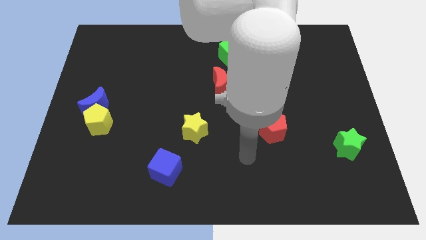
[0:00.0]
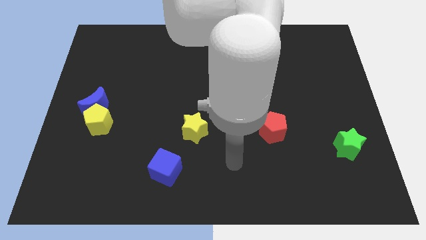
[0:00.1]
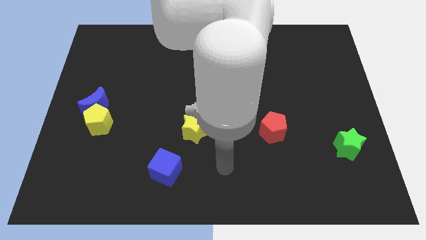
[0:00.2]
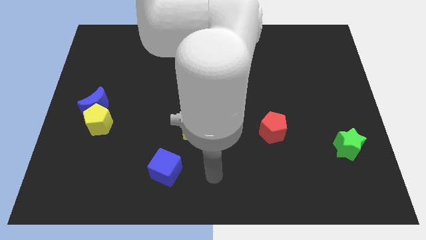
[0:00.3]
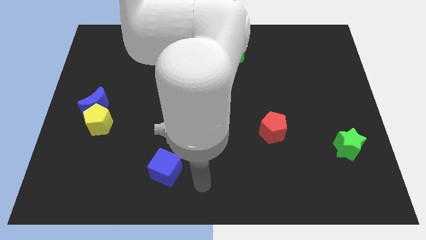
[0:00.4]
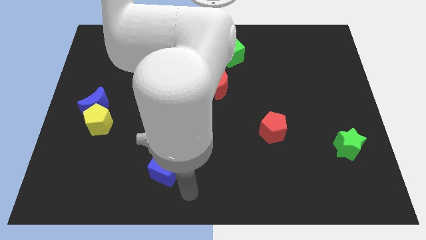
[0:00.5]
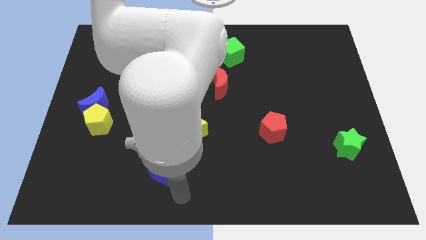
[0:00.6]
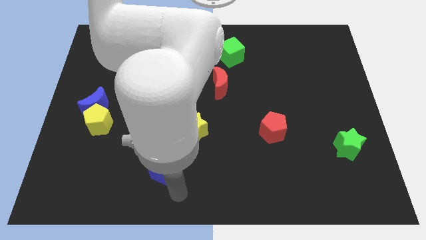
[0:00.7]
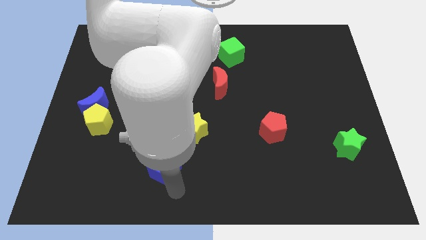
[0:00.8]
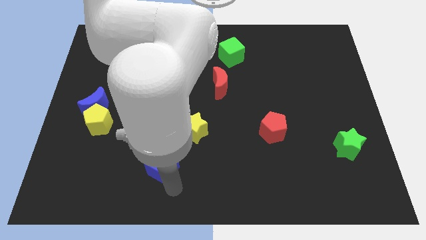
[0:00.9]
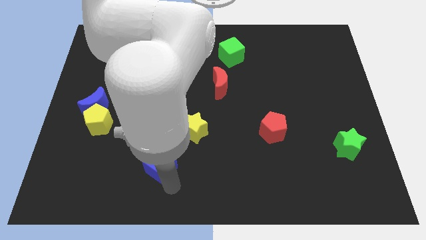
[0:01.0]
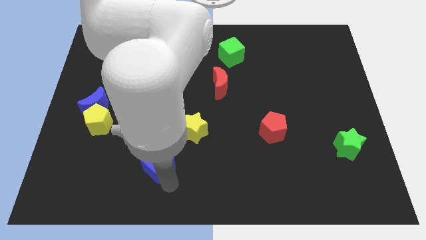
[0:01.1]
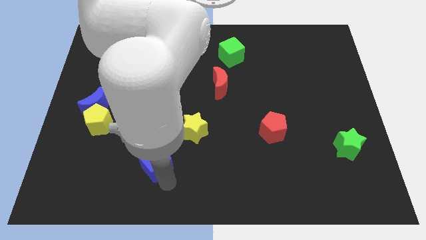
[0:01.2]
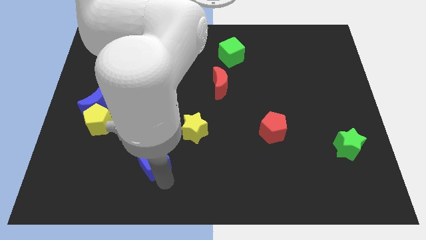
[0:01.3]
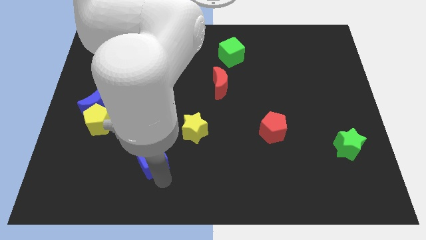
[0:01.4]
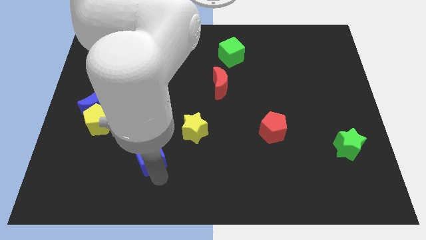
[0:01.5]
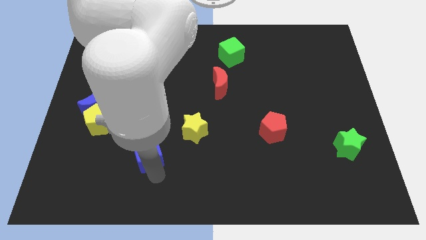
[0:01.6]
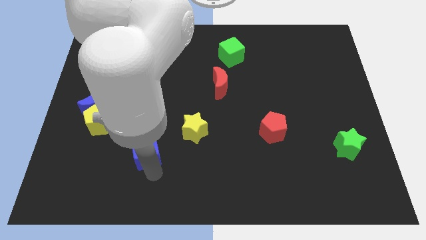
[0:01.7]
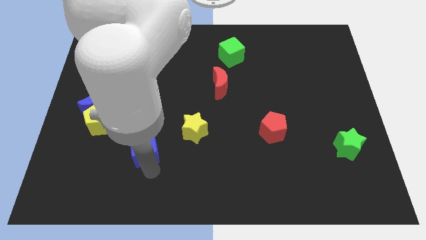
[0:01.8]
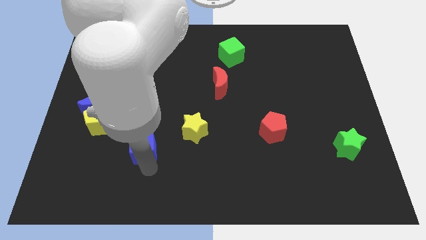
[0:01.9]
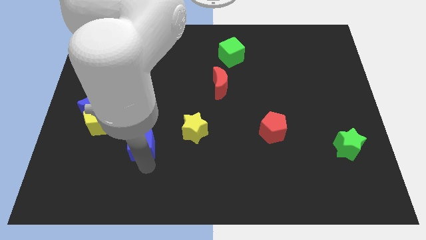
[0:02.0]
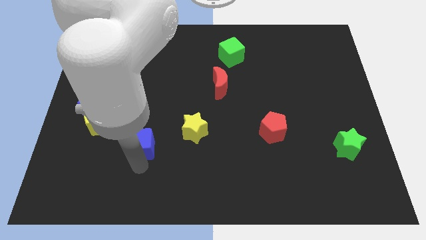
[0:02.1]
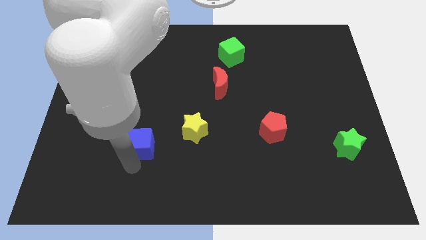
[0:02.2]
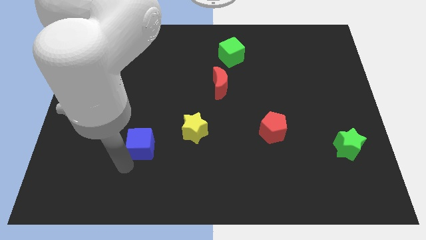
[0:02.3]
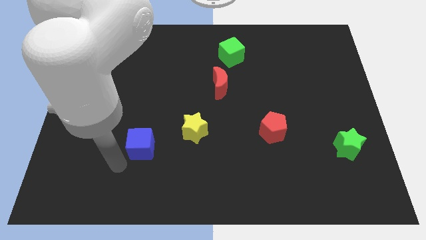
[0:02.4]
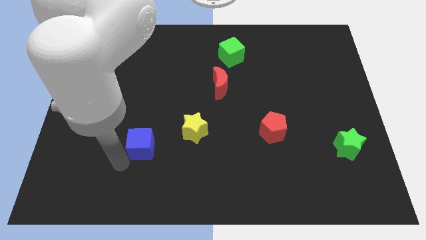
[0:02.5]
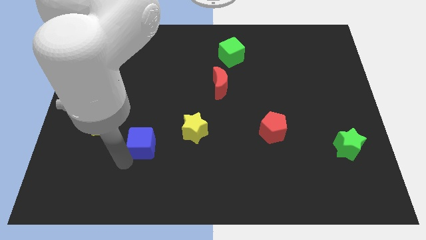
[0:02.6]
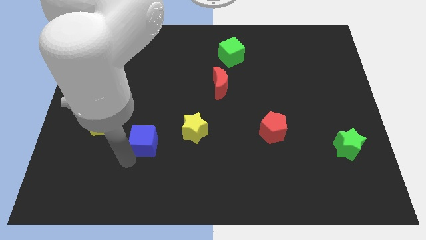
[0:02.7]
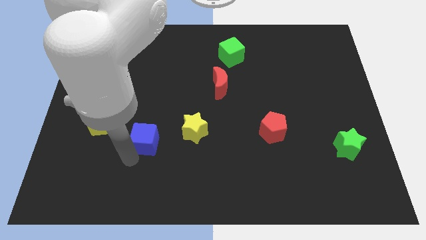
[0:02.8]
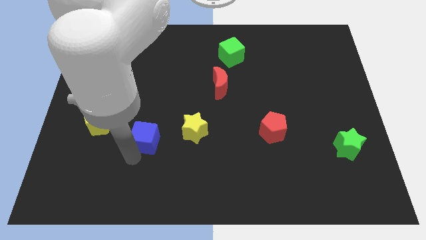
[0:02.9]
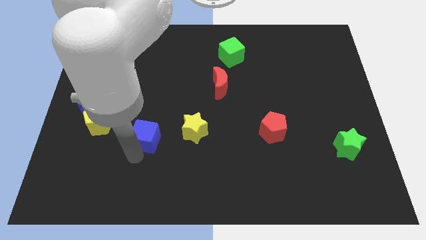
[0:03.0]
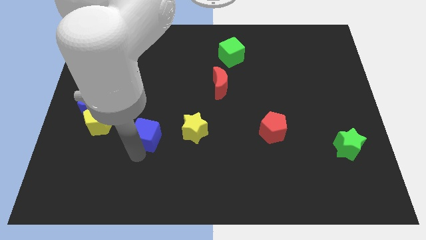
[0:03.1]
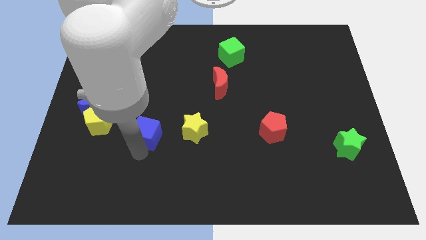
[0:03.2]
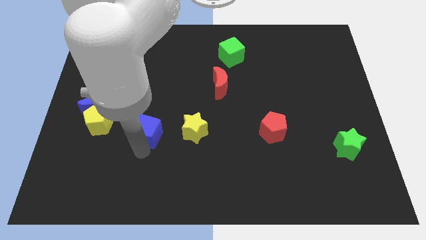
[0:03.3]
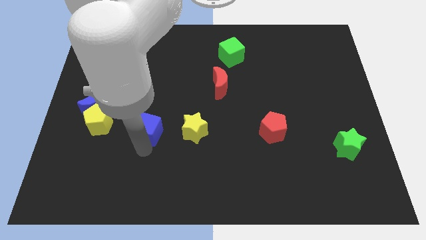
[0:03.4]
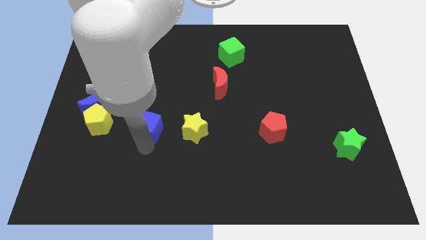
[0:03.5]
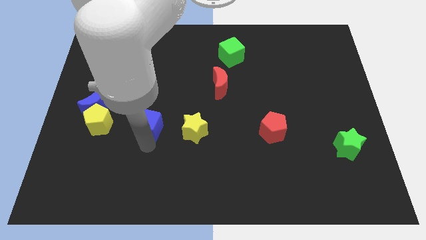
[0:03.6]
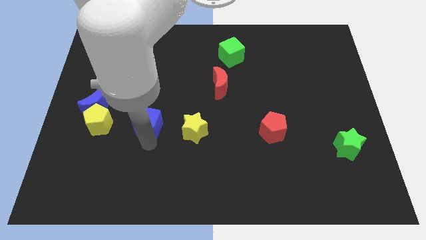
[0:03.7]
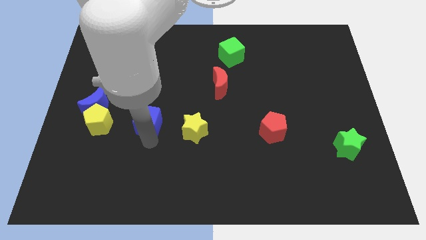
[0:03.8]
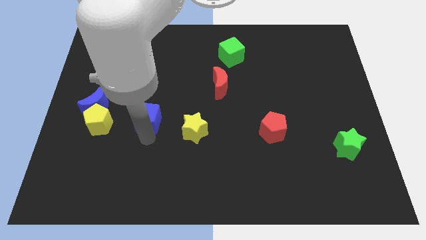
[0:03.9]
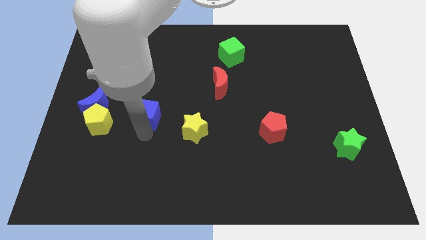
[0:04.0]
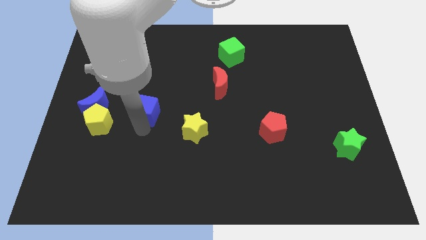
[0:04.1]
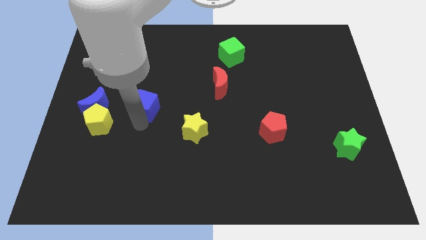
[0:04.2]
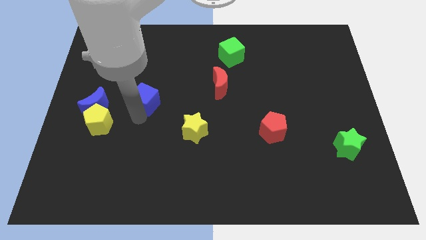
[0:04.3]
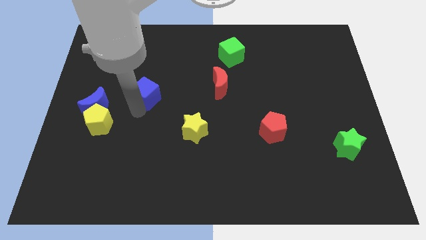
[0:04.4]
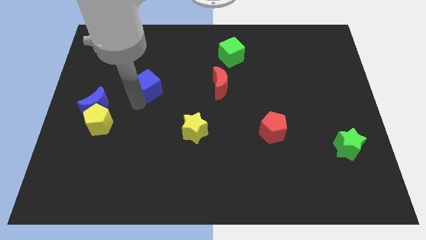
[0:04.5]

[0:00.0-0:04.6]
move the blue cube upwards

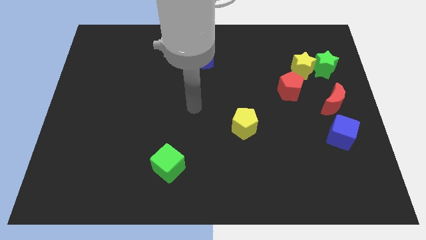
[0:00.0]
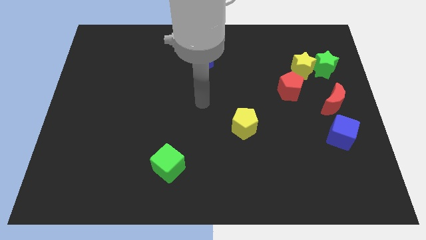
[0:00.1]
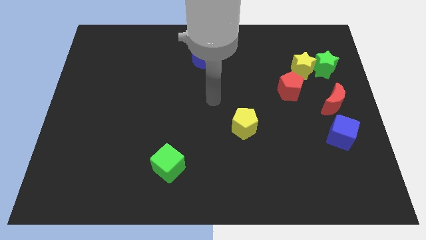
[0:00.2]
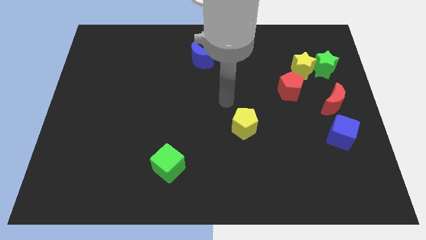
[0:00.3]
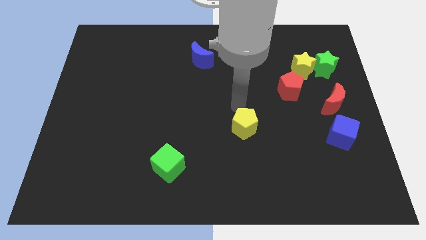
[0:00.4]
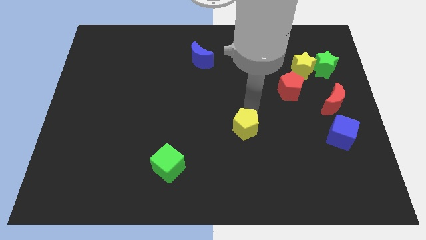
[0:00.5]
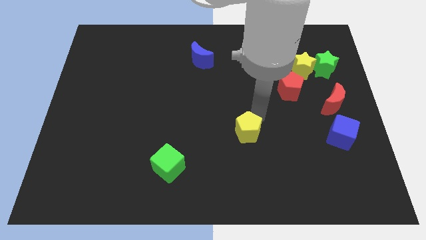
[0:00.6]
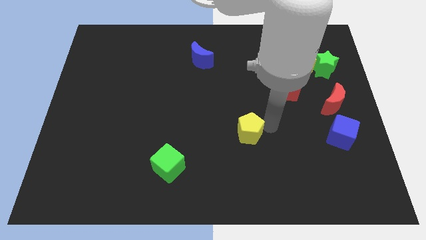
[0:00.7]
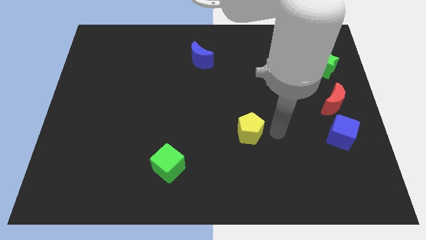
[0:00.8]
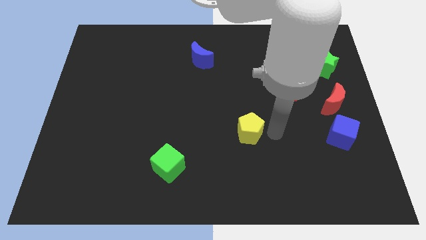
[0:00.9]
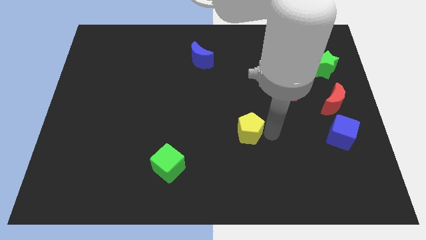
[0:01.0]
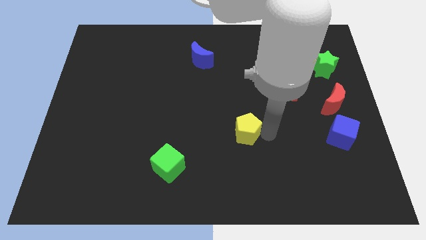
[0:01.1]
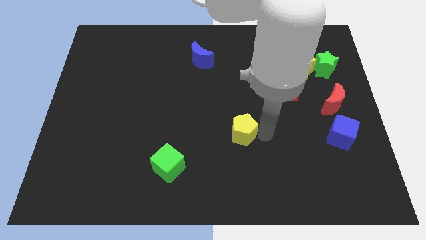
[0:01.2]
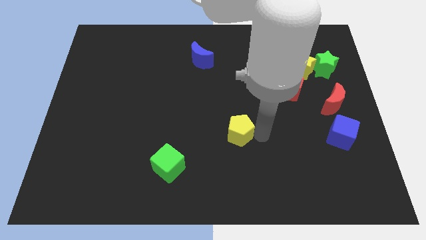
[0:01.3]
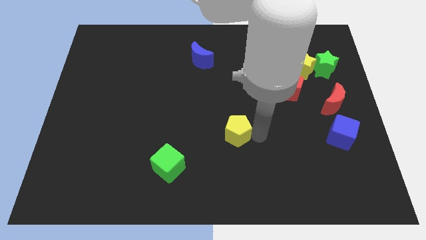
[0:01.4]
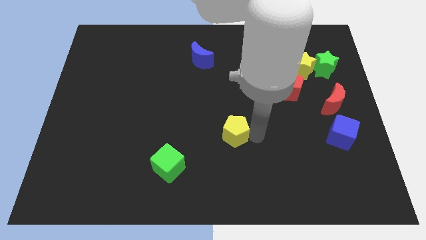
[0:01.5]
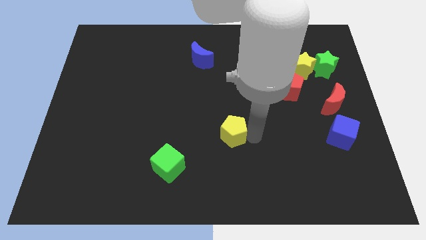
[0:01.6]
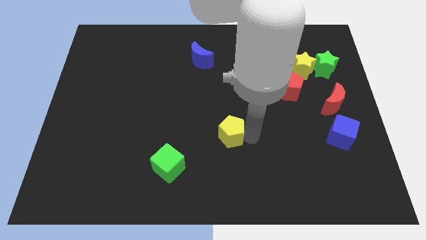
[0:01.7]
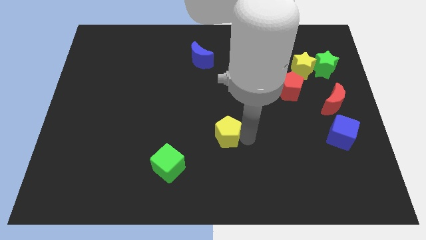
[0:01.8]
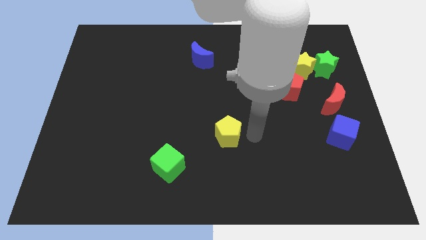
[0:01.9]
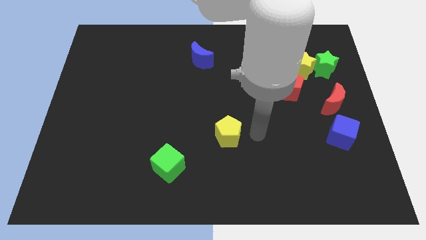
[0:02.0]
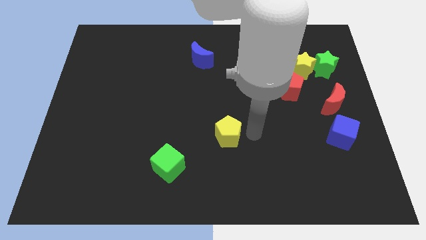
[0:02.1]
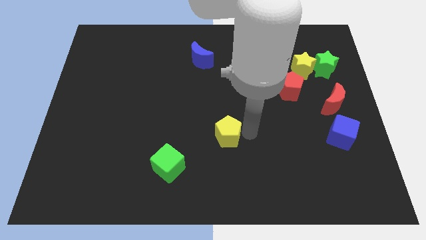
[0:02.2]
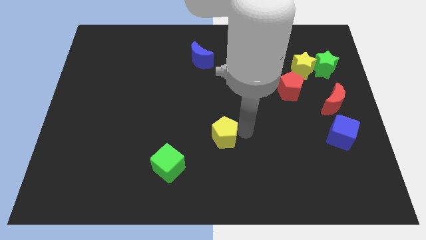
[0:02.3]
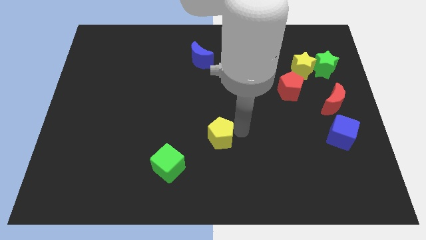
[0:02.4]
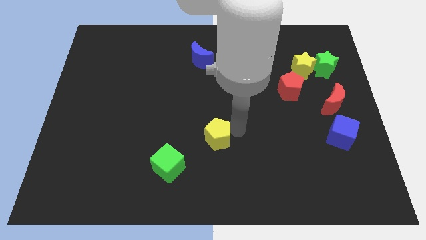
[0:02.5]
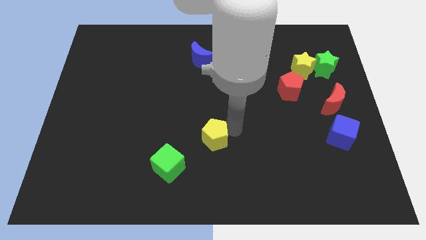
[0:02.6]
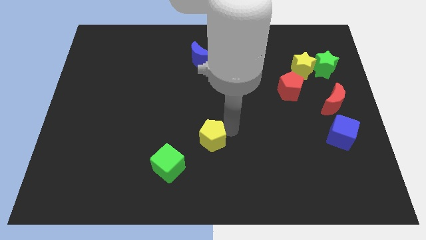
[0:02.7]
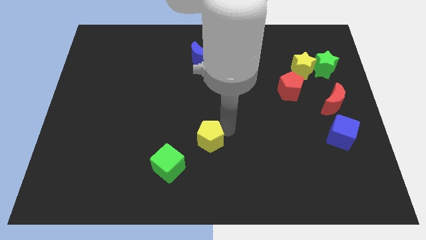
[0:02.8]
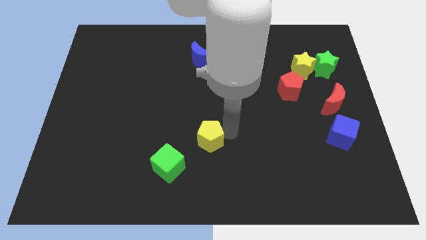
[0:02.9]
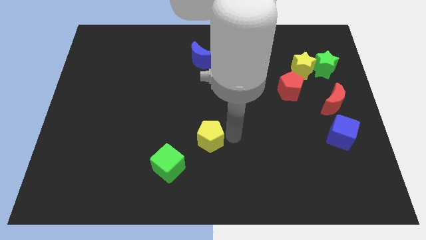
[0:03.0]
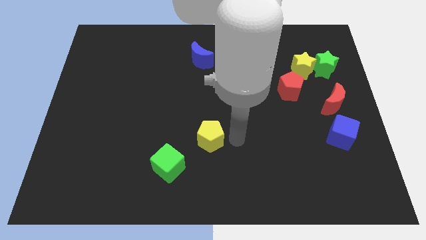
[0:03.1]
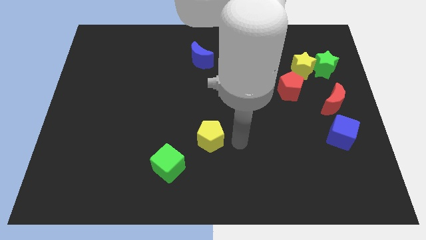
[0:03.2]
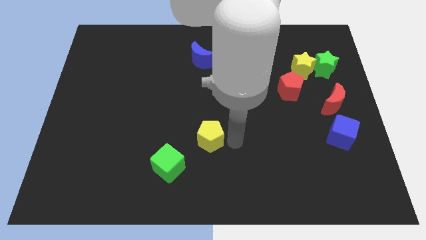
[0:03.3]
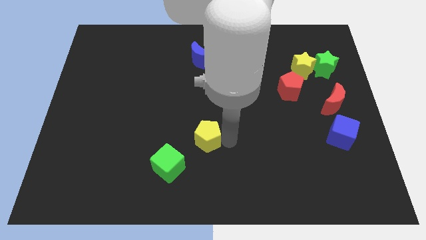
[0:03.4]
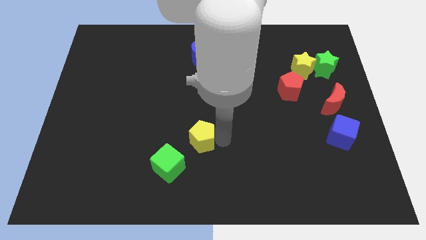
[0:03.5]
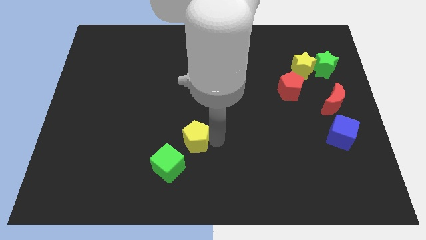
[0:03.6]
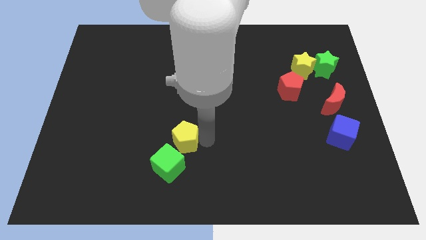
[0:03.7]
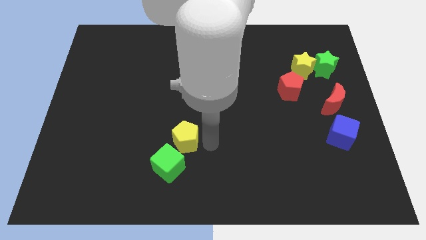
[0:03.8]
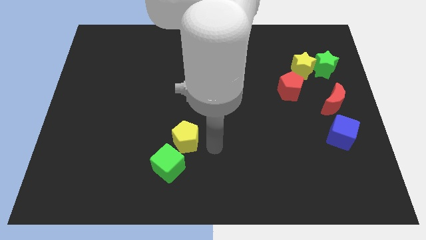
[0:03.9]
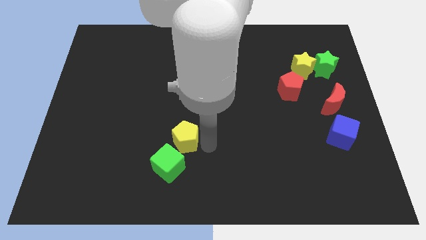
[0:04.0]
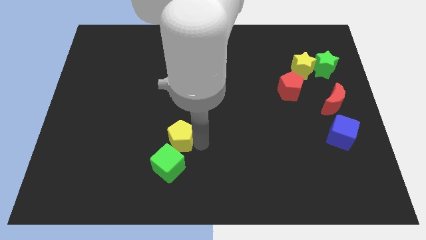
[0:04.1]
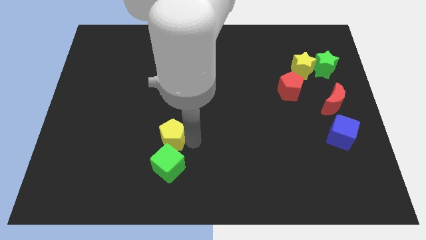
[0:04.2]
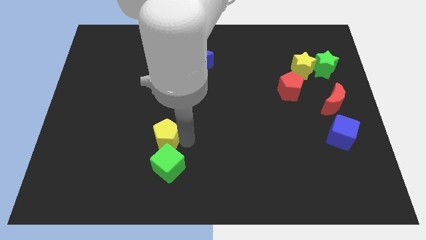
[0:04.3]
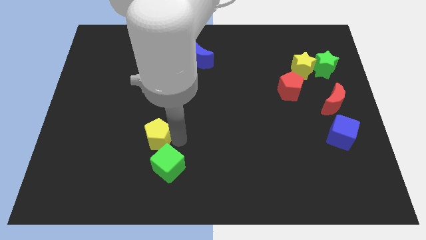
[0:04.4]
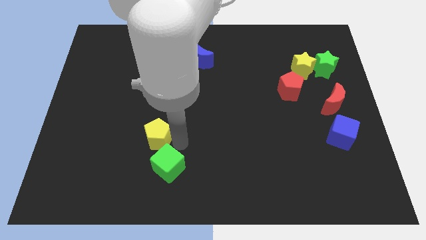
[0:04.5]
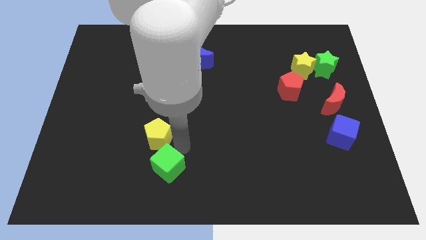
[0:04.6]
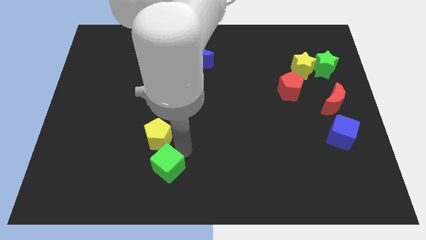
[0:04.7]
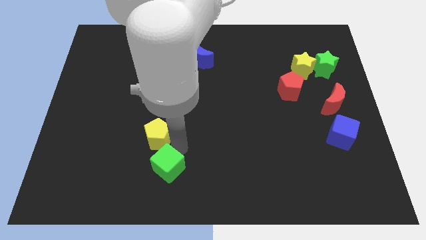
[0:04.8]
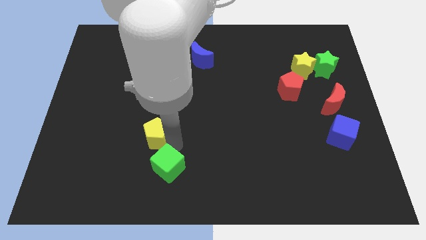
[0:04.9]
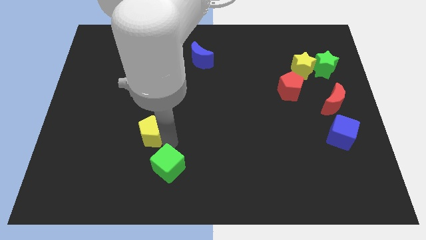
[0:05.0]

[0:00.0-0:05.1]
slide the yellow pentagon to the left
